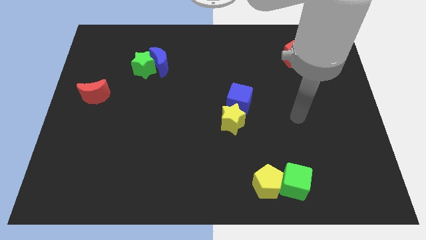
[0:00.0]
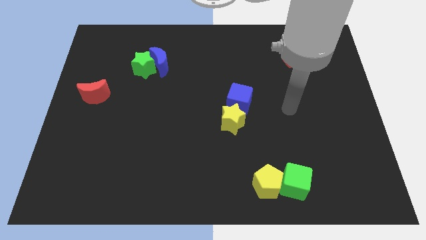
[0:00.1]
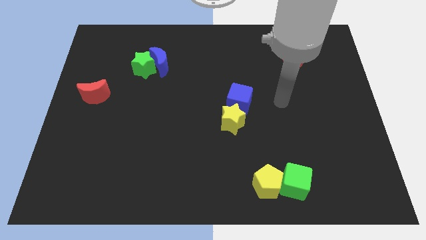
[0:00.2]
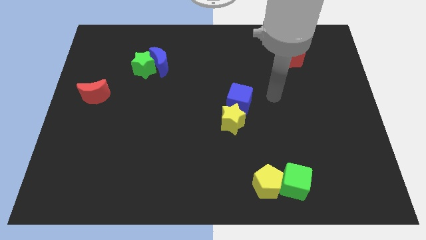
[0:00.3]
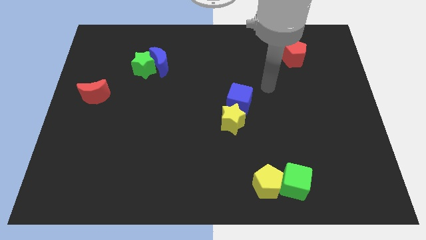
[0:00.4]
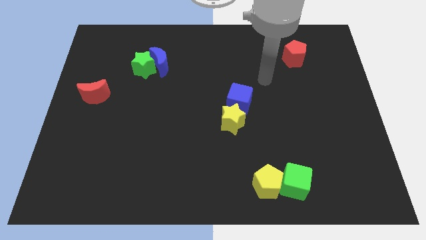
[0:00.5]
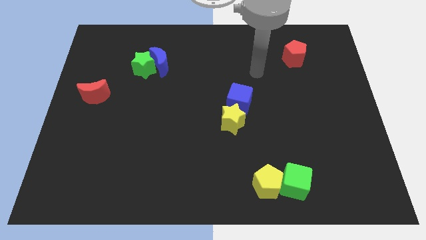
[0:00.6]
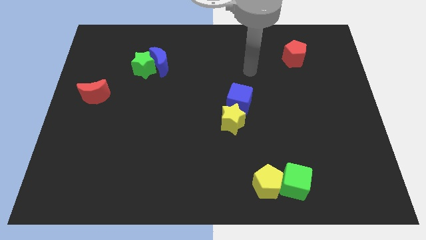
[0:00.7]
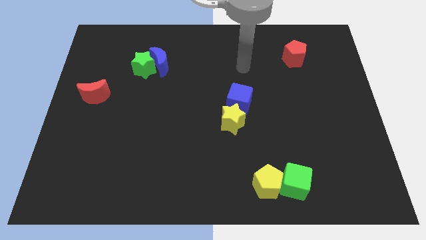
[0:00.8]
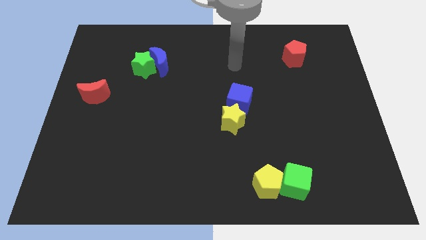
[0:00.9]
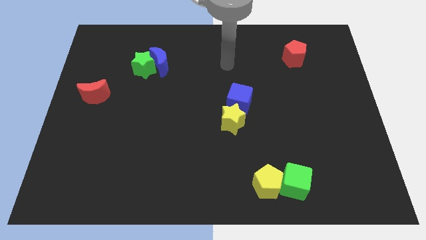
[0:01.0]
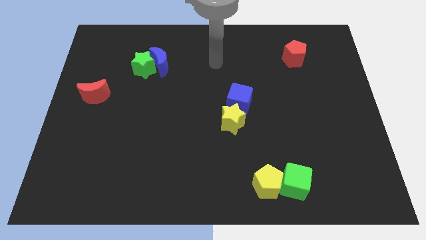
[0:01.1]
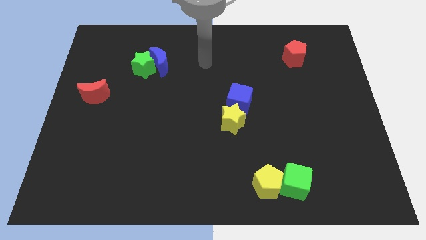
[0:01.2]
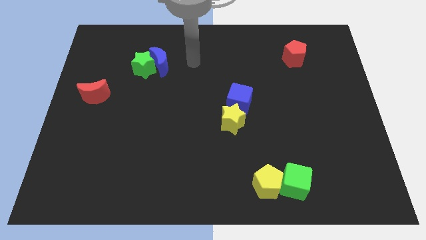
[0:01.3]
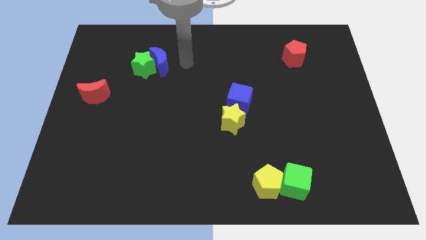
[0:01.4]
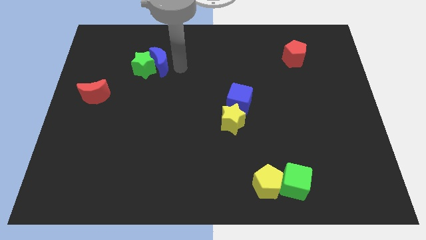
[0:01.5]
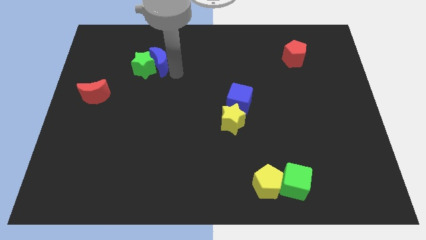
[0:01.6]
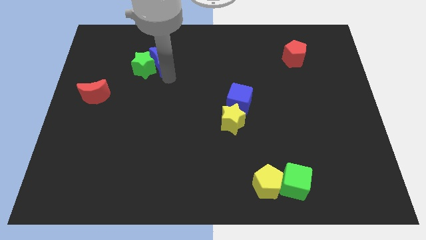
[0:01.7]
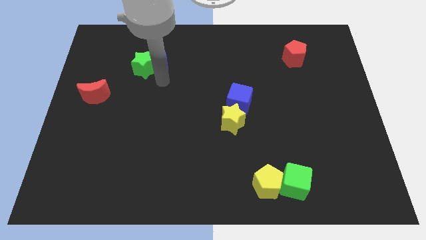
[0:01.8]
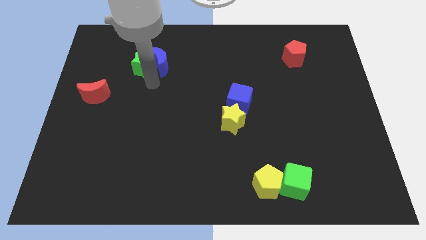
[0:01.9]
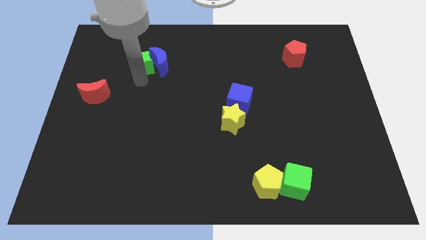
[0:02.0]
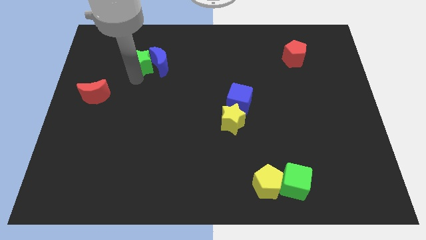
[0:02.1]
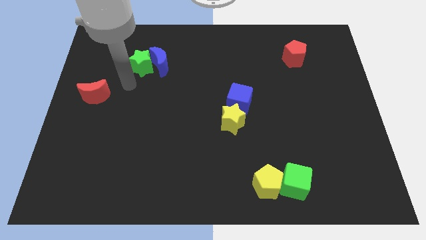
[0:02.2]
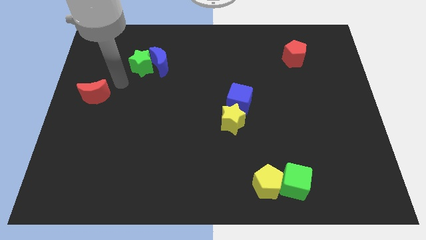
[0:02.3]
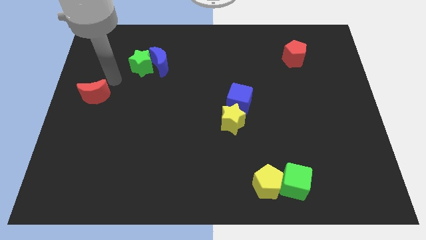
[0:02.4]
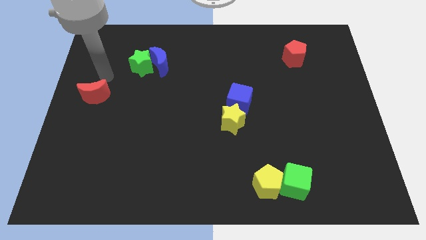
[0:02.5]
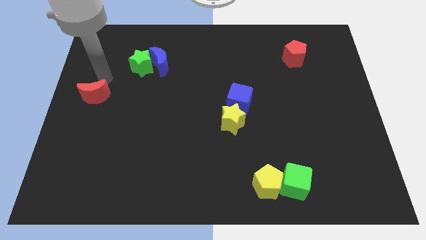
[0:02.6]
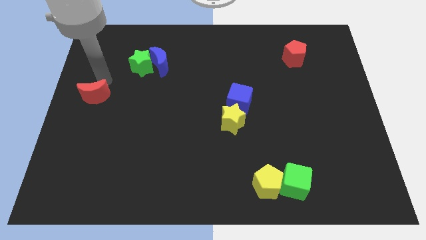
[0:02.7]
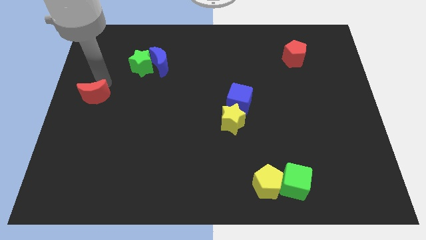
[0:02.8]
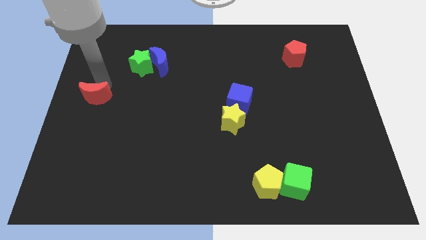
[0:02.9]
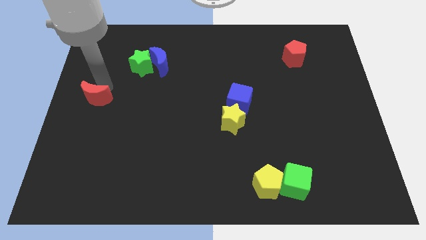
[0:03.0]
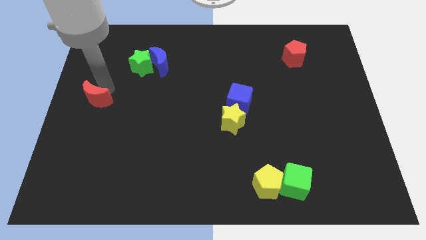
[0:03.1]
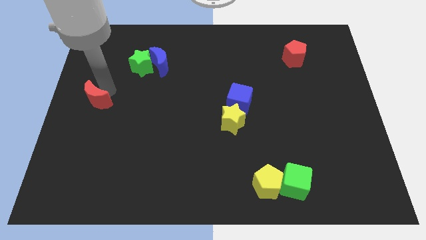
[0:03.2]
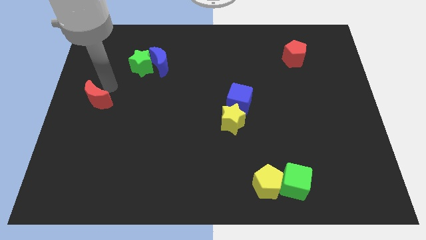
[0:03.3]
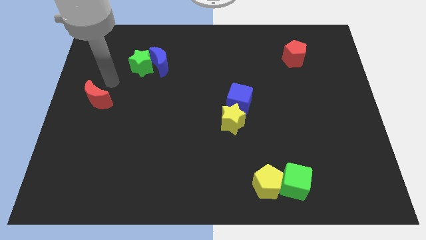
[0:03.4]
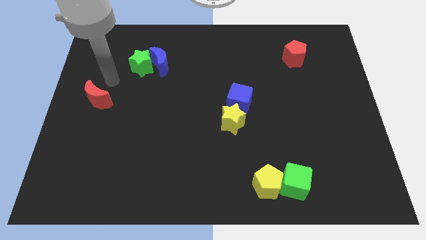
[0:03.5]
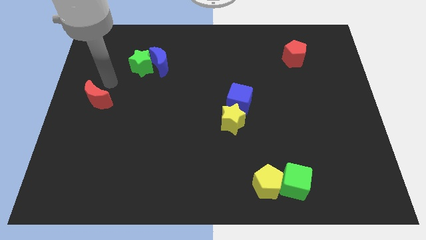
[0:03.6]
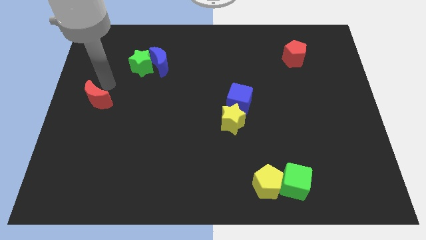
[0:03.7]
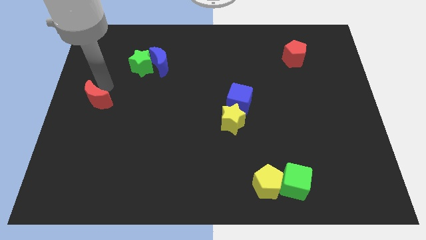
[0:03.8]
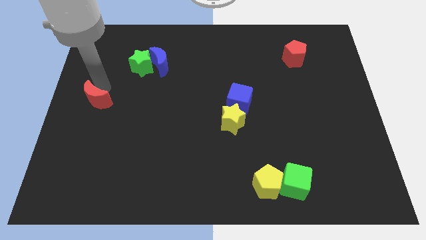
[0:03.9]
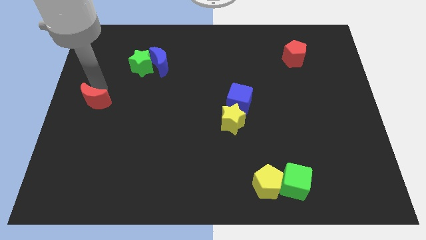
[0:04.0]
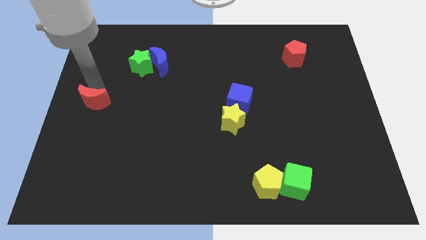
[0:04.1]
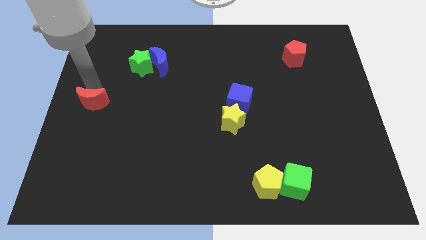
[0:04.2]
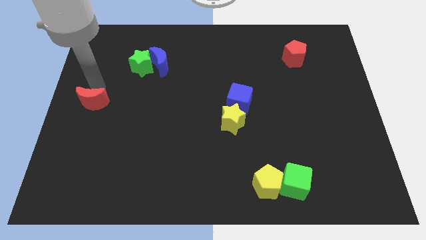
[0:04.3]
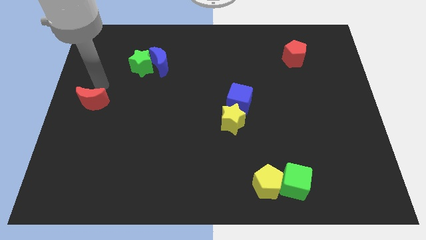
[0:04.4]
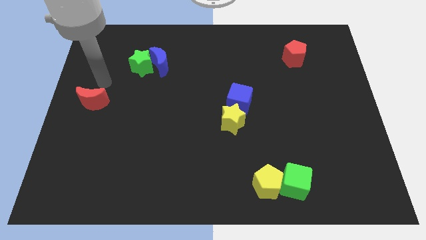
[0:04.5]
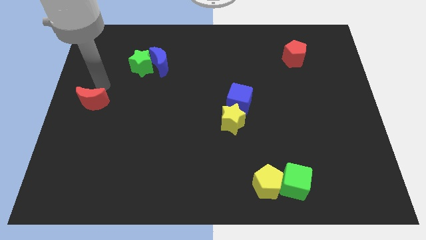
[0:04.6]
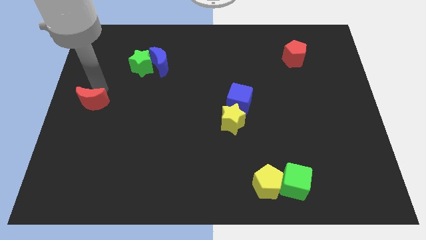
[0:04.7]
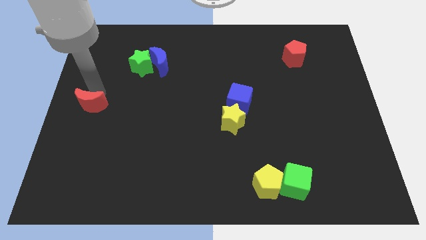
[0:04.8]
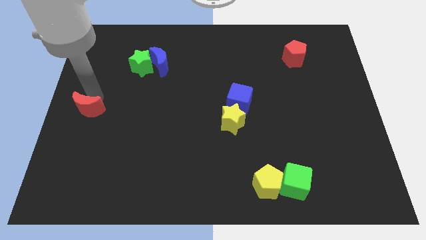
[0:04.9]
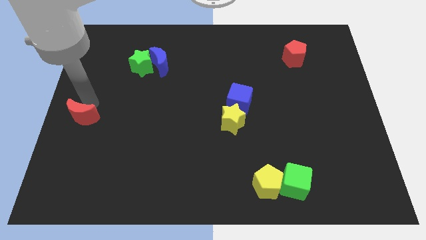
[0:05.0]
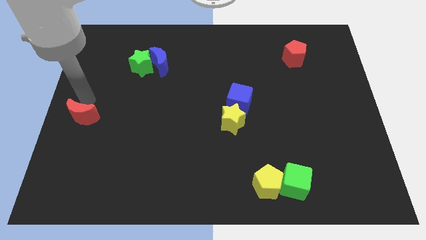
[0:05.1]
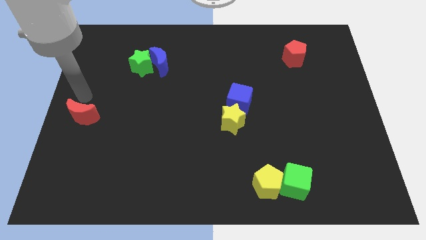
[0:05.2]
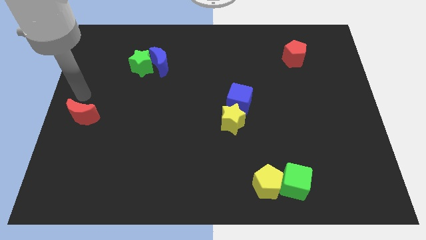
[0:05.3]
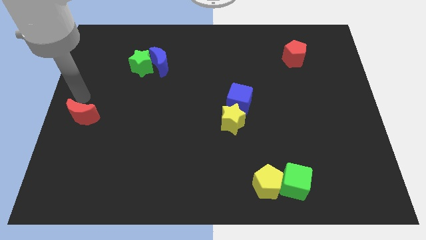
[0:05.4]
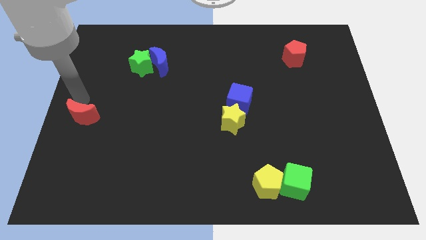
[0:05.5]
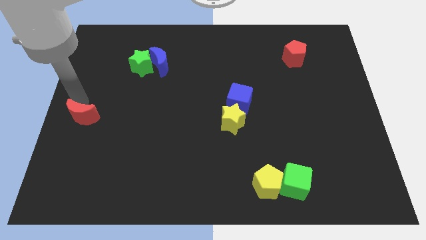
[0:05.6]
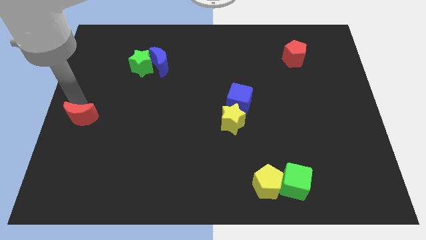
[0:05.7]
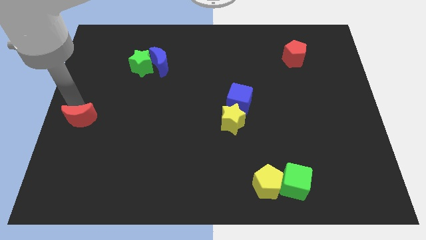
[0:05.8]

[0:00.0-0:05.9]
move the red moon down a little bit

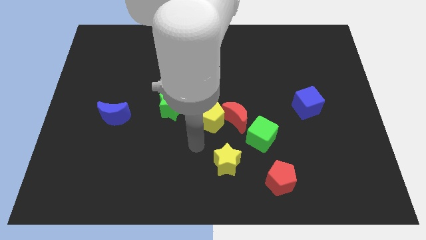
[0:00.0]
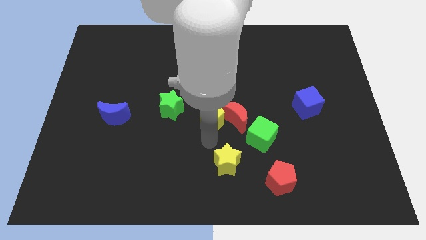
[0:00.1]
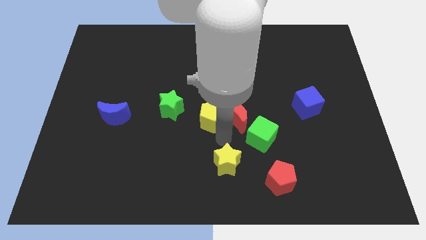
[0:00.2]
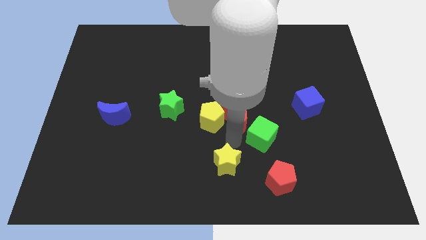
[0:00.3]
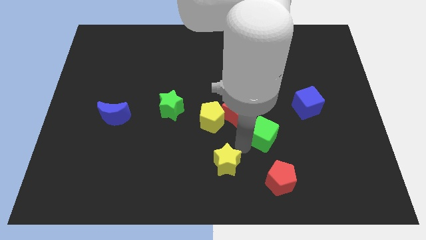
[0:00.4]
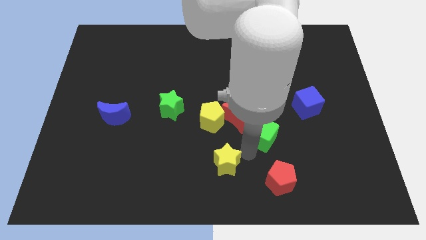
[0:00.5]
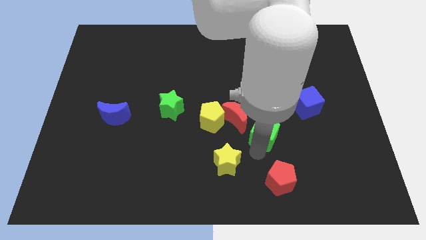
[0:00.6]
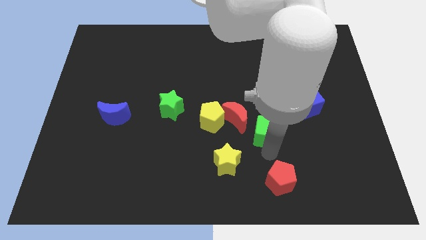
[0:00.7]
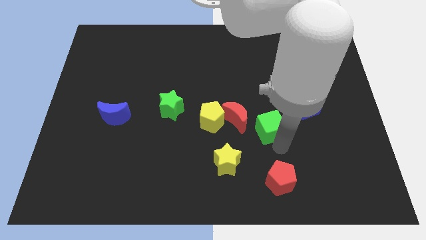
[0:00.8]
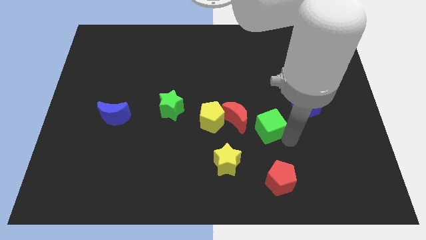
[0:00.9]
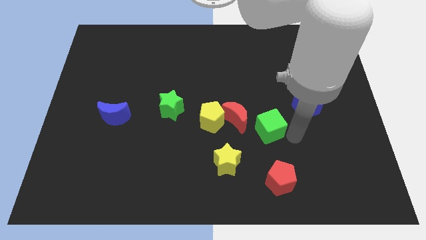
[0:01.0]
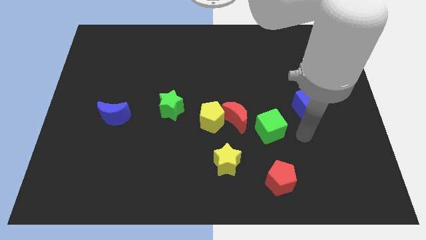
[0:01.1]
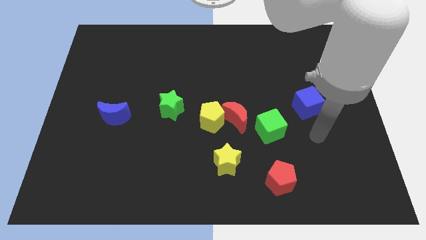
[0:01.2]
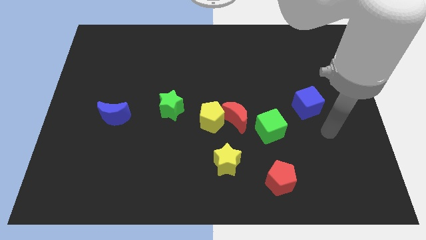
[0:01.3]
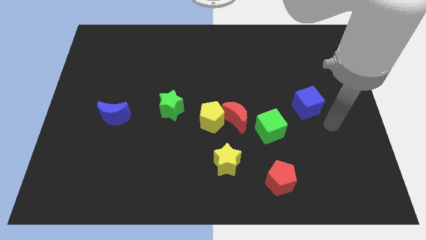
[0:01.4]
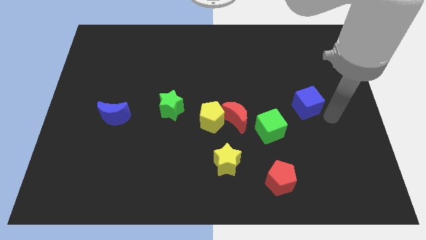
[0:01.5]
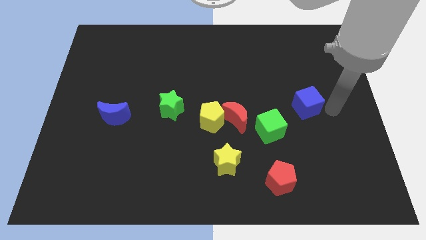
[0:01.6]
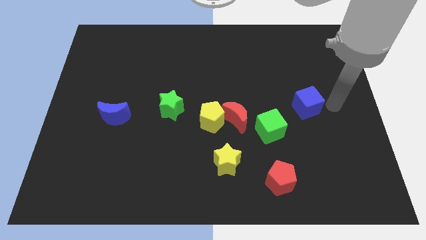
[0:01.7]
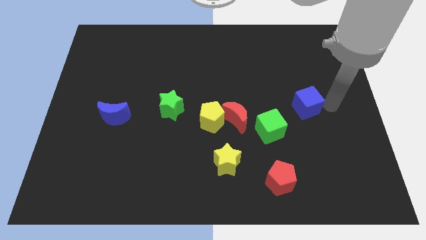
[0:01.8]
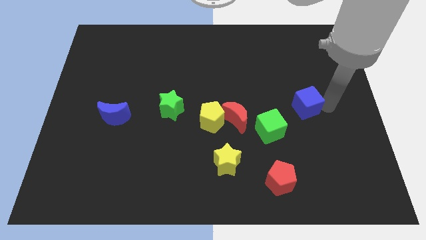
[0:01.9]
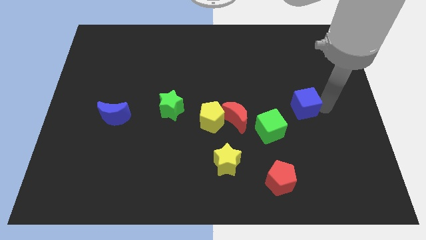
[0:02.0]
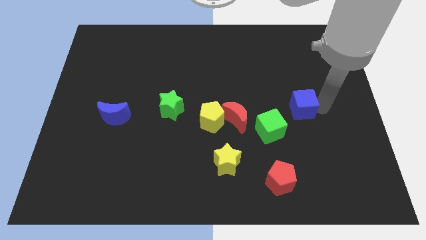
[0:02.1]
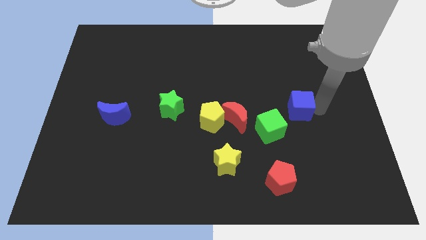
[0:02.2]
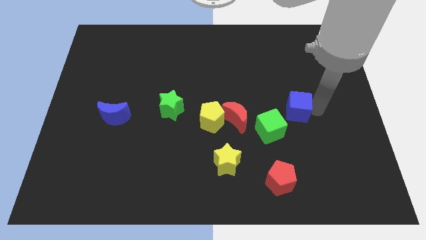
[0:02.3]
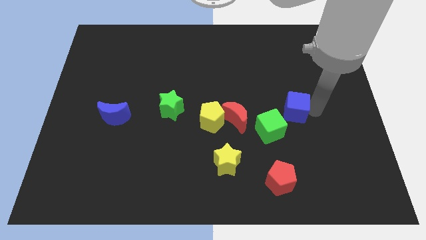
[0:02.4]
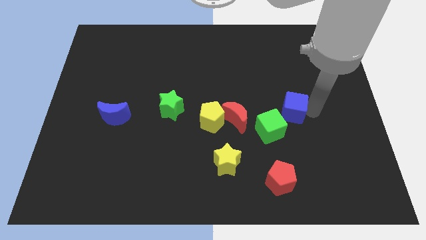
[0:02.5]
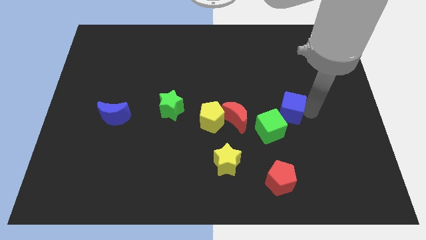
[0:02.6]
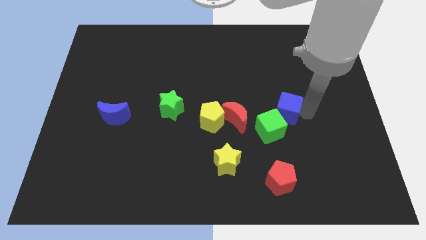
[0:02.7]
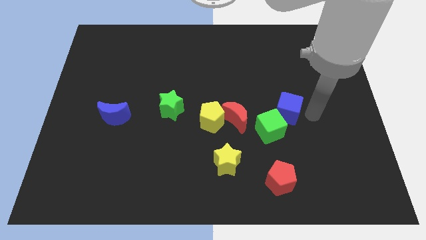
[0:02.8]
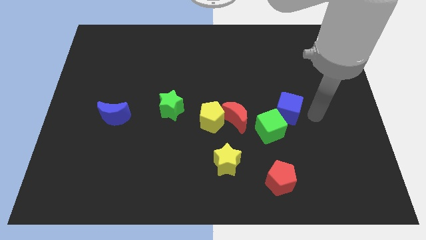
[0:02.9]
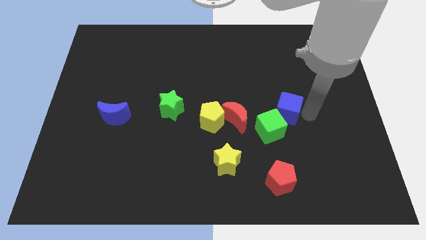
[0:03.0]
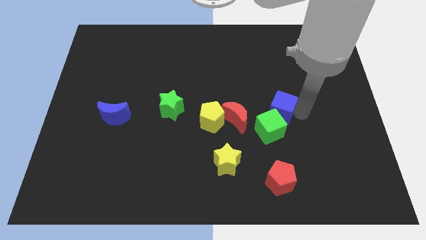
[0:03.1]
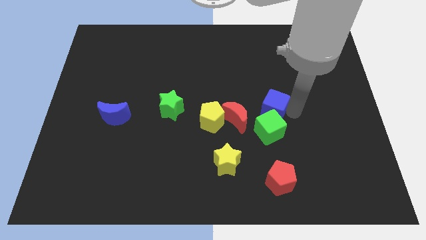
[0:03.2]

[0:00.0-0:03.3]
slightly move the blue cube left
